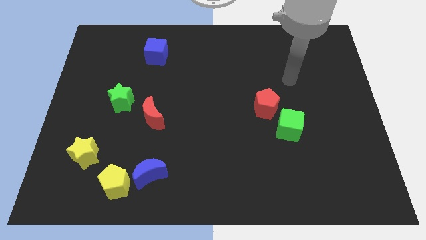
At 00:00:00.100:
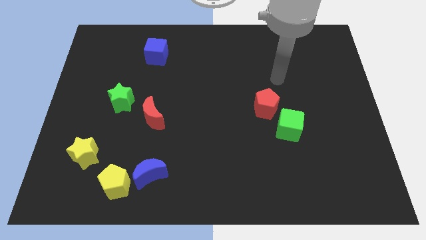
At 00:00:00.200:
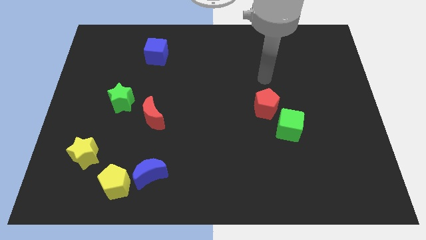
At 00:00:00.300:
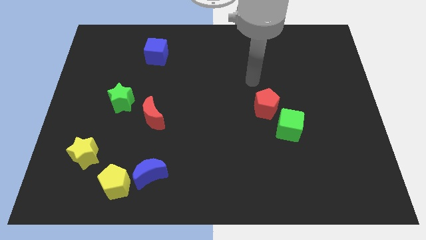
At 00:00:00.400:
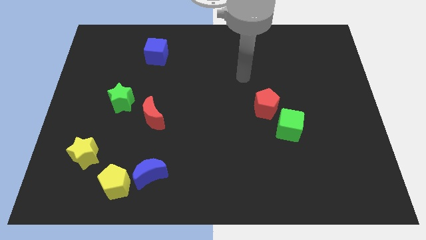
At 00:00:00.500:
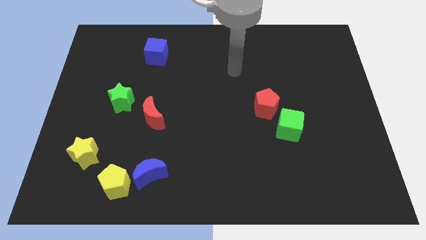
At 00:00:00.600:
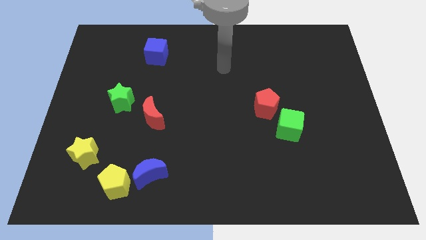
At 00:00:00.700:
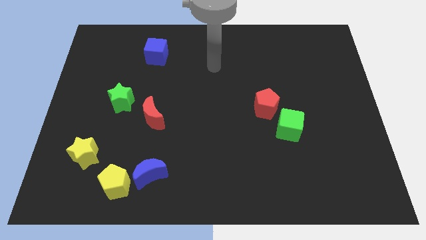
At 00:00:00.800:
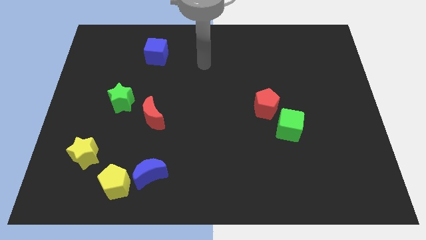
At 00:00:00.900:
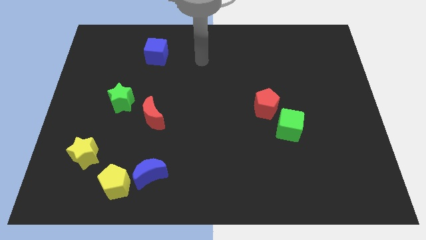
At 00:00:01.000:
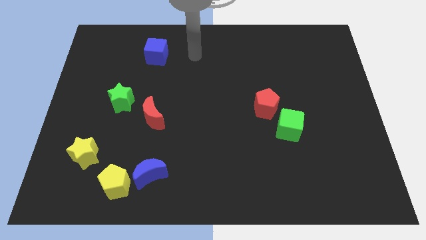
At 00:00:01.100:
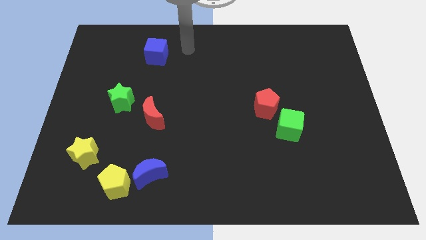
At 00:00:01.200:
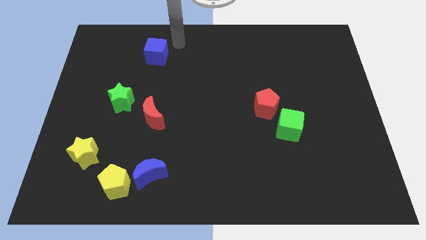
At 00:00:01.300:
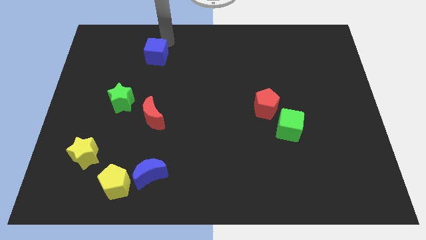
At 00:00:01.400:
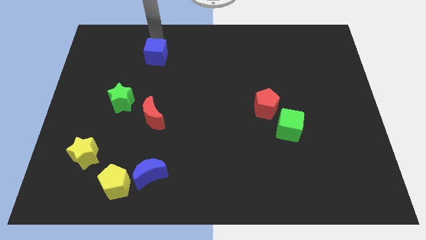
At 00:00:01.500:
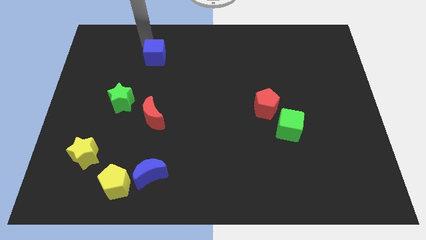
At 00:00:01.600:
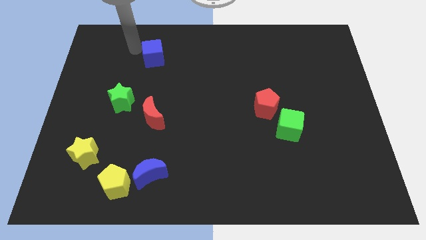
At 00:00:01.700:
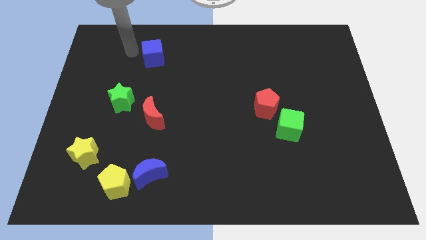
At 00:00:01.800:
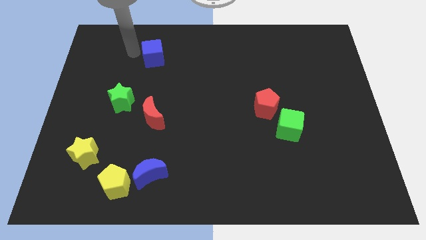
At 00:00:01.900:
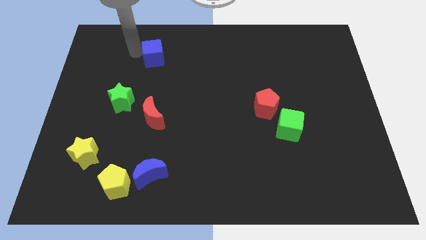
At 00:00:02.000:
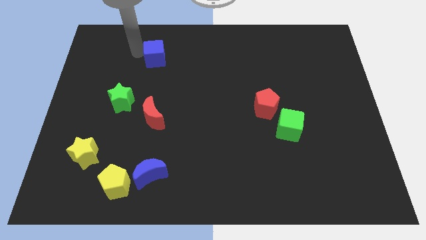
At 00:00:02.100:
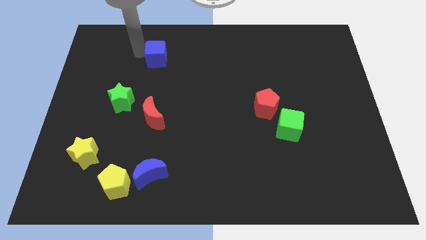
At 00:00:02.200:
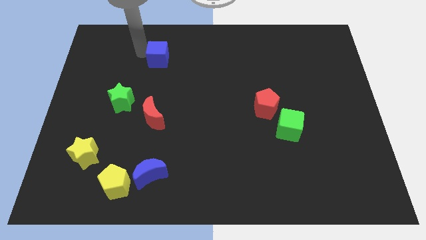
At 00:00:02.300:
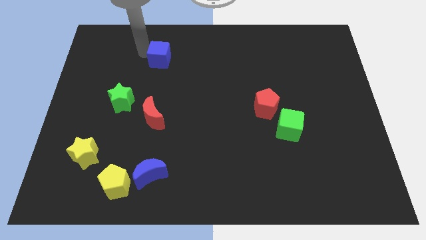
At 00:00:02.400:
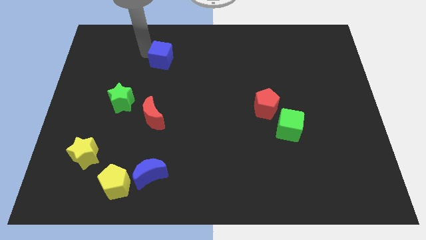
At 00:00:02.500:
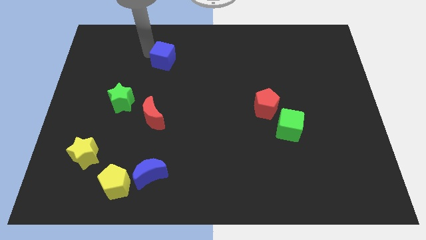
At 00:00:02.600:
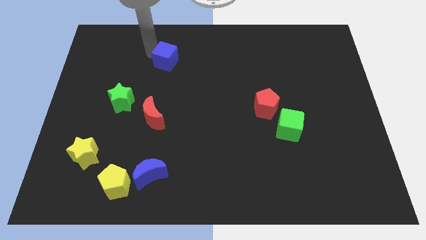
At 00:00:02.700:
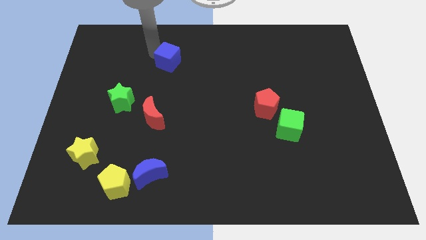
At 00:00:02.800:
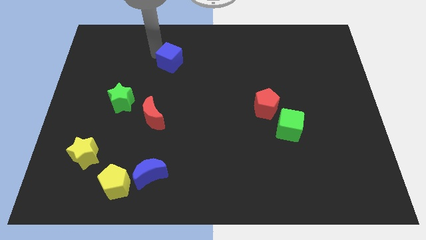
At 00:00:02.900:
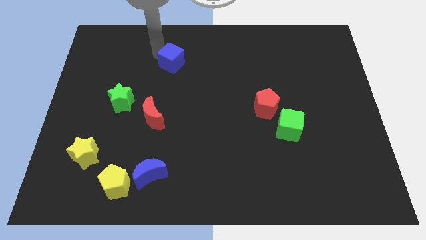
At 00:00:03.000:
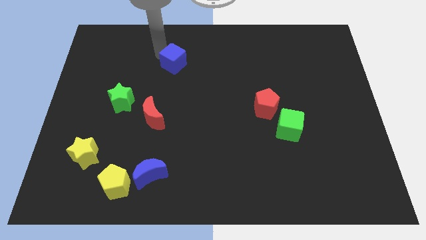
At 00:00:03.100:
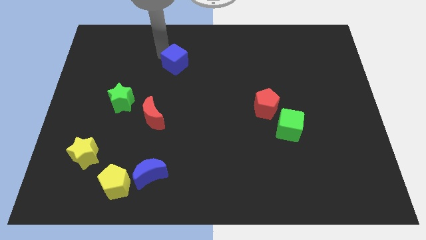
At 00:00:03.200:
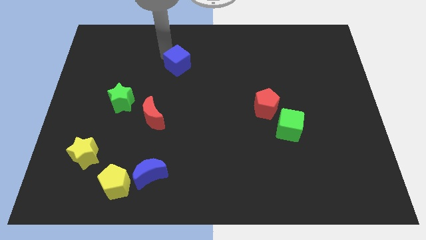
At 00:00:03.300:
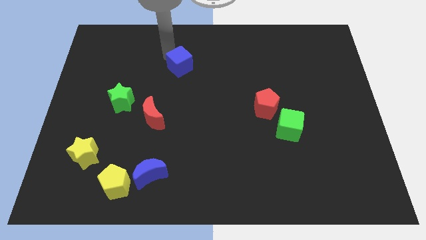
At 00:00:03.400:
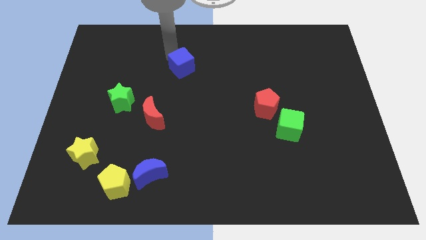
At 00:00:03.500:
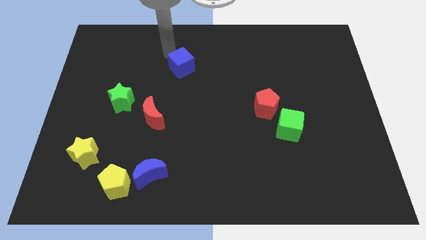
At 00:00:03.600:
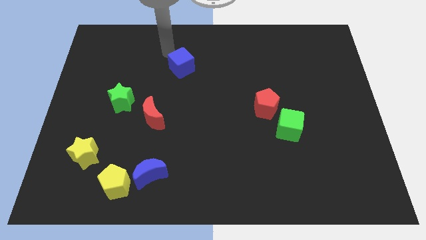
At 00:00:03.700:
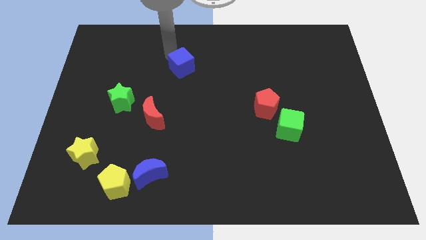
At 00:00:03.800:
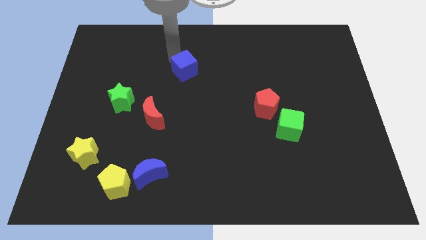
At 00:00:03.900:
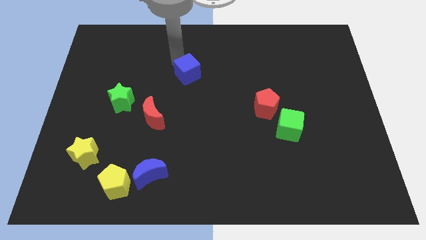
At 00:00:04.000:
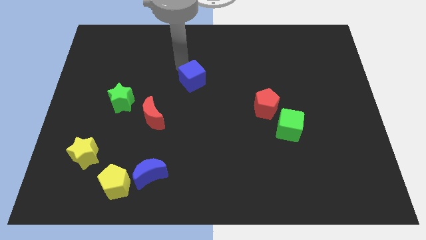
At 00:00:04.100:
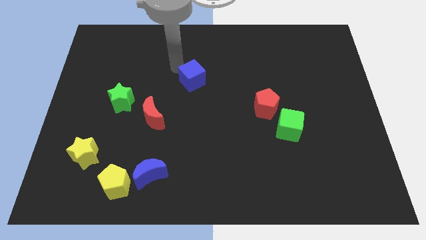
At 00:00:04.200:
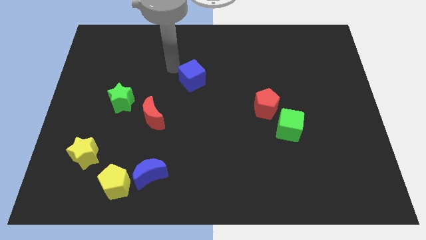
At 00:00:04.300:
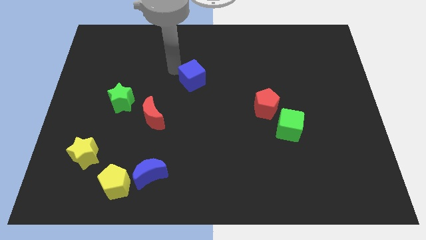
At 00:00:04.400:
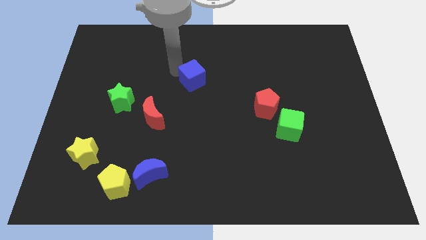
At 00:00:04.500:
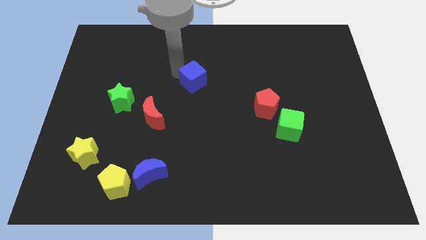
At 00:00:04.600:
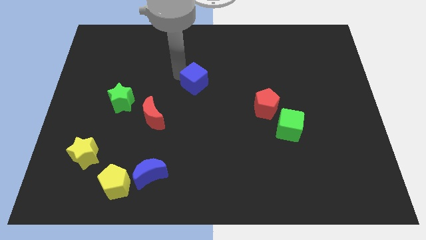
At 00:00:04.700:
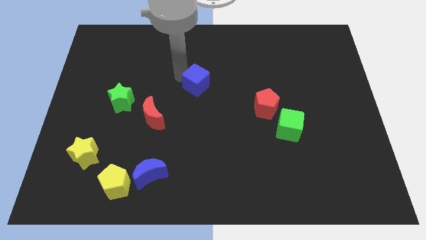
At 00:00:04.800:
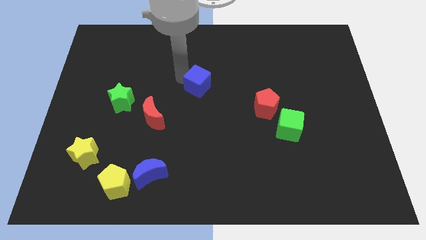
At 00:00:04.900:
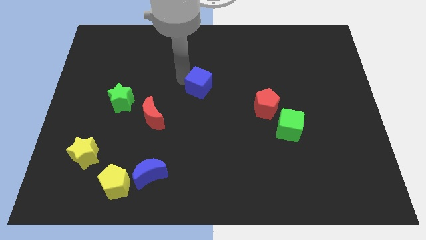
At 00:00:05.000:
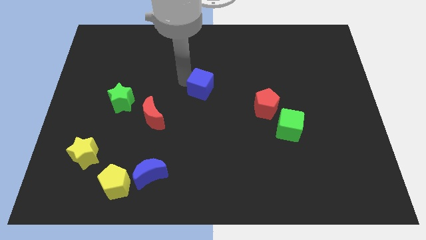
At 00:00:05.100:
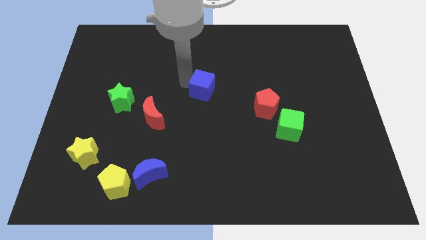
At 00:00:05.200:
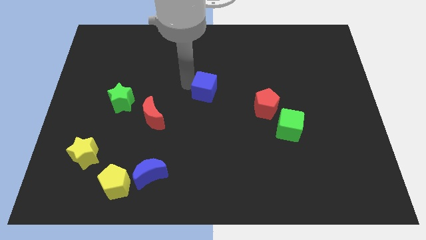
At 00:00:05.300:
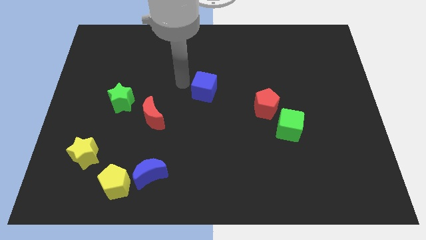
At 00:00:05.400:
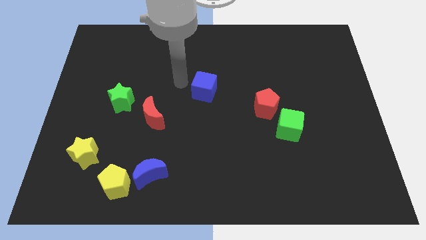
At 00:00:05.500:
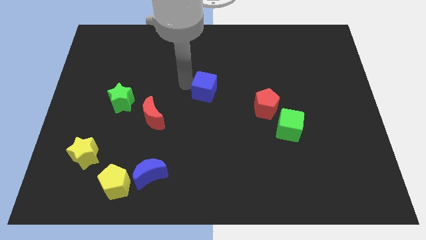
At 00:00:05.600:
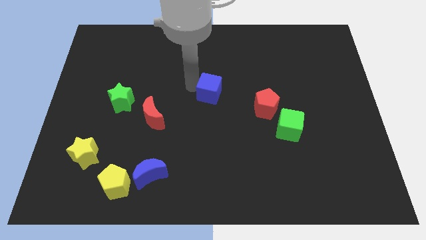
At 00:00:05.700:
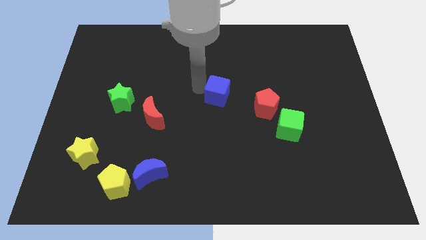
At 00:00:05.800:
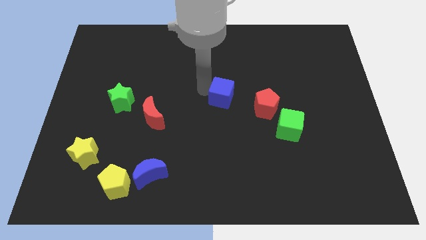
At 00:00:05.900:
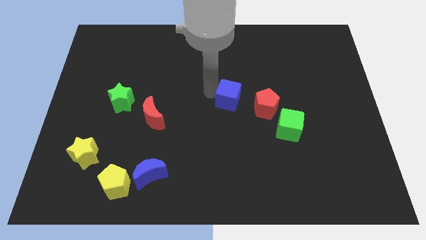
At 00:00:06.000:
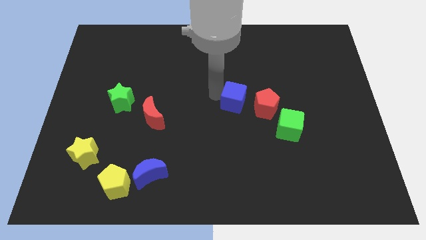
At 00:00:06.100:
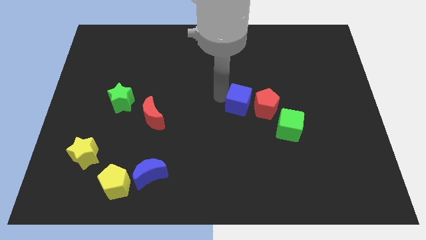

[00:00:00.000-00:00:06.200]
move the blue cube to the red pentagon

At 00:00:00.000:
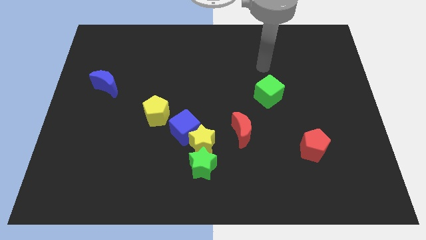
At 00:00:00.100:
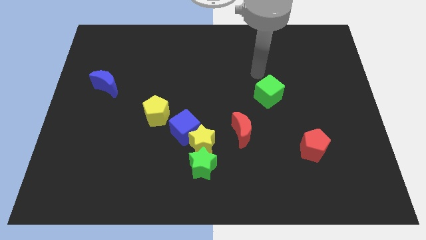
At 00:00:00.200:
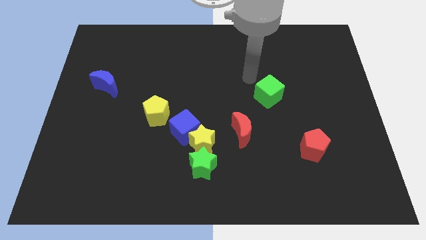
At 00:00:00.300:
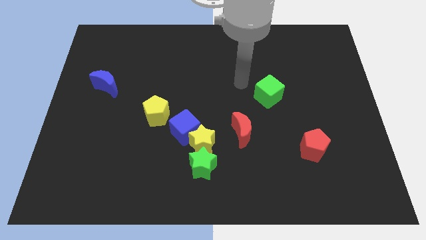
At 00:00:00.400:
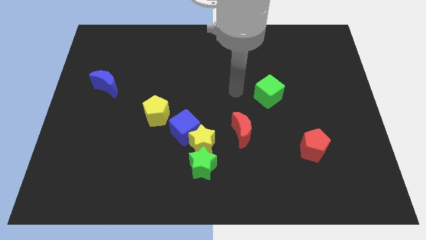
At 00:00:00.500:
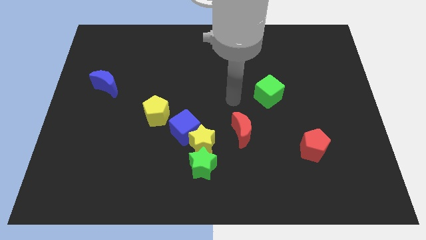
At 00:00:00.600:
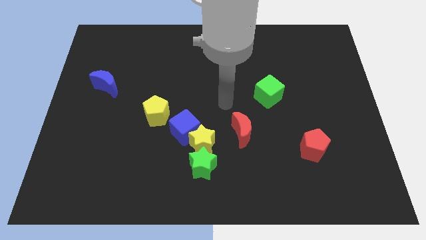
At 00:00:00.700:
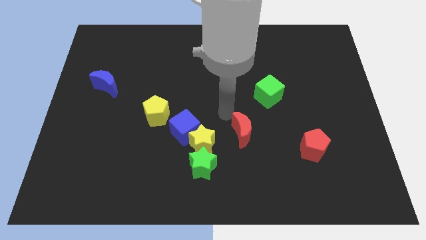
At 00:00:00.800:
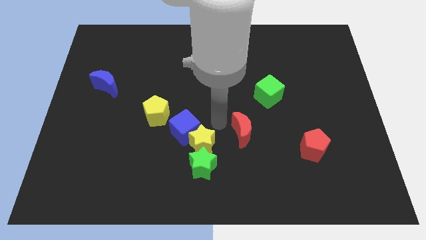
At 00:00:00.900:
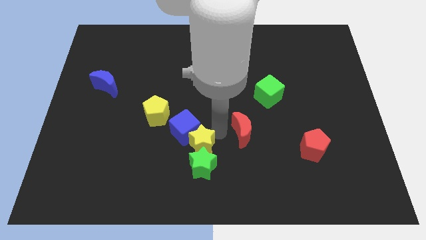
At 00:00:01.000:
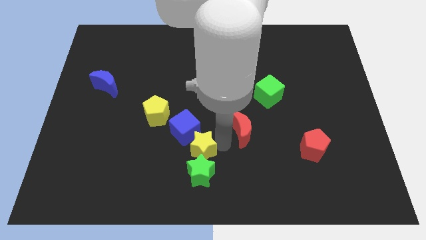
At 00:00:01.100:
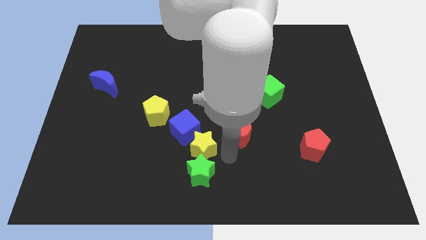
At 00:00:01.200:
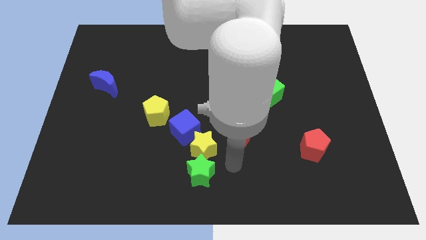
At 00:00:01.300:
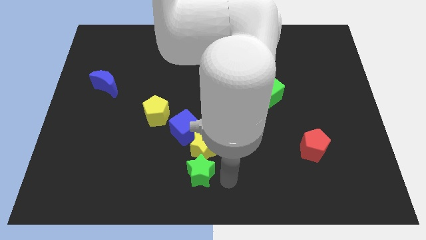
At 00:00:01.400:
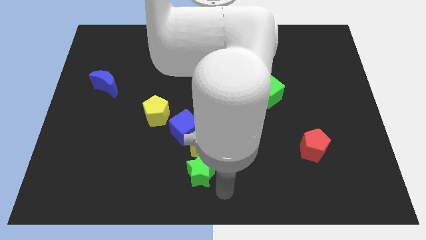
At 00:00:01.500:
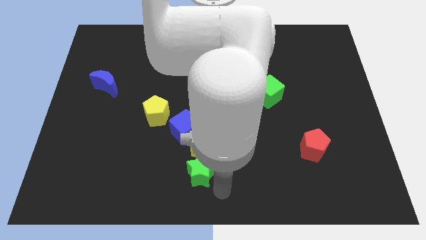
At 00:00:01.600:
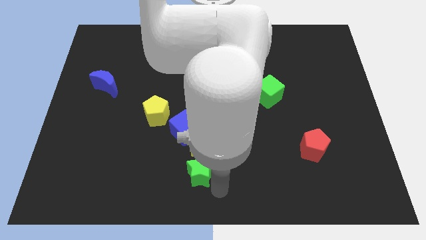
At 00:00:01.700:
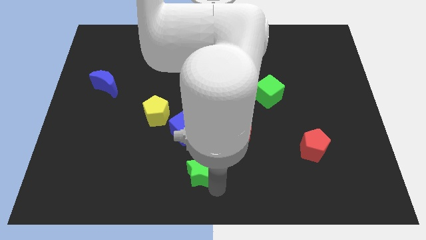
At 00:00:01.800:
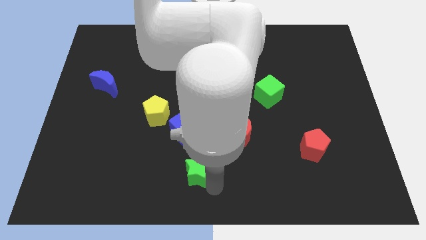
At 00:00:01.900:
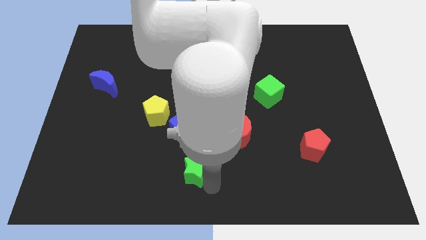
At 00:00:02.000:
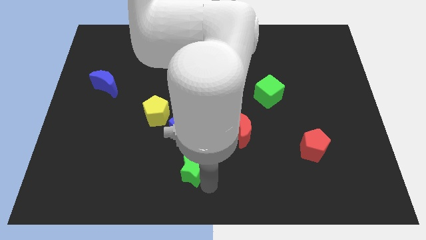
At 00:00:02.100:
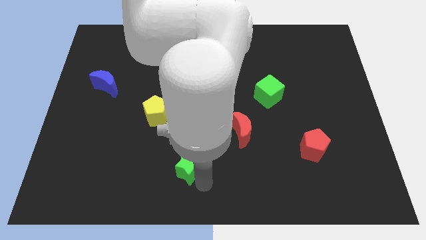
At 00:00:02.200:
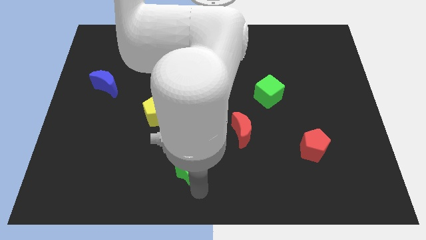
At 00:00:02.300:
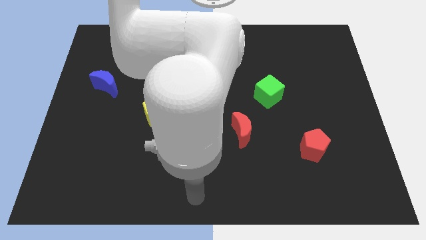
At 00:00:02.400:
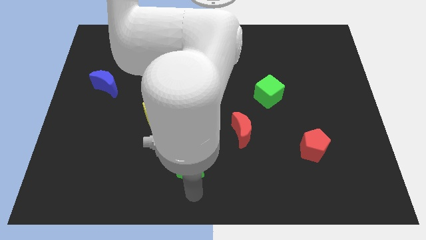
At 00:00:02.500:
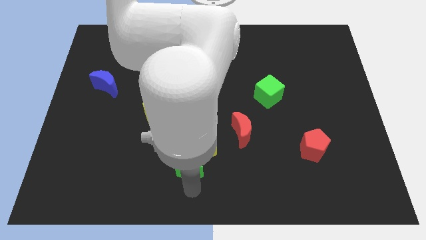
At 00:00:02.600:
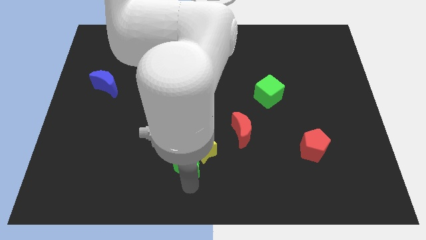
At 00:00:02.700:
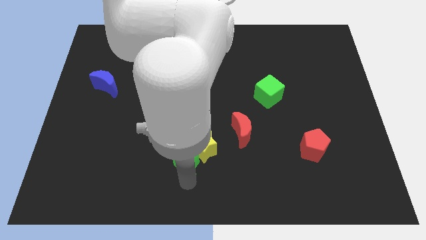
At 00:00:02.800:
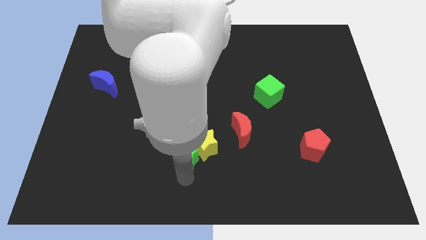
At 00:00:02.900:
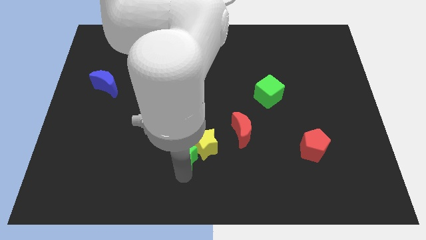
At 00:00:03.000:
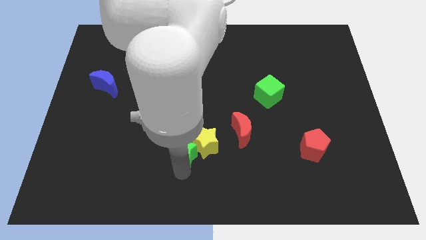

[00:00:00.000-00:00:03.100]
put the green star towards the blue cube
